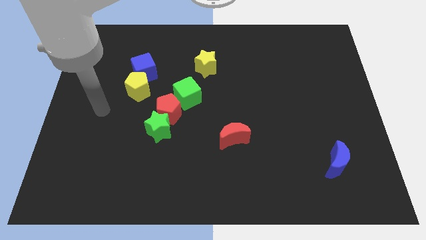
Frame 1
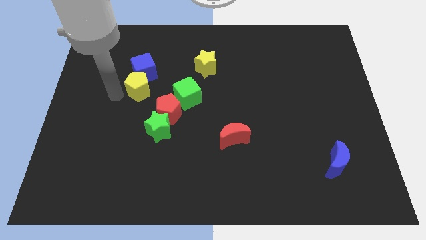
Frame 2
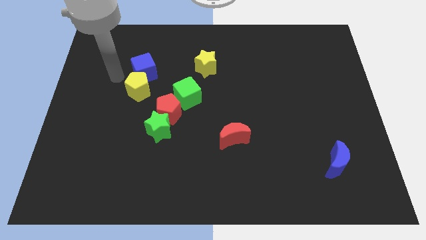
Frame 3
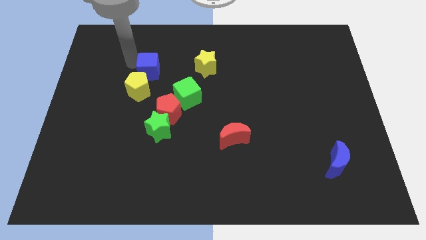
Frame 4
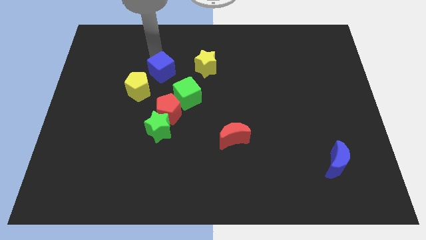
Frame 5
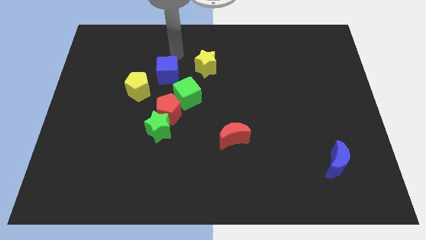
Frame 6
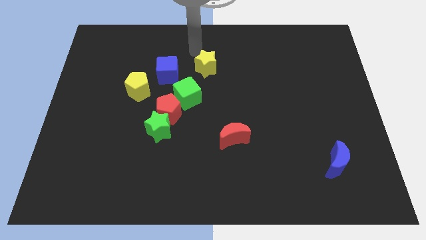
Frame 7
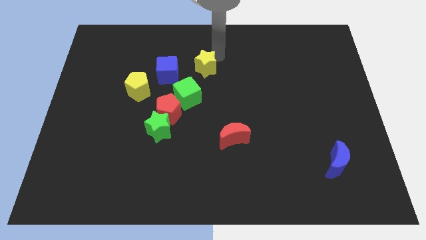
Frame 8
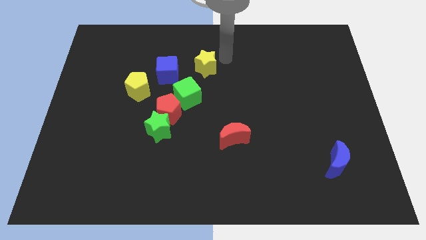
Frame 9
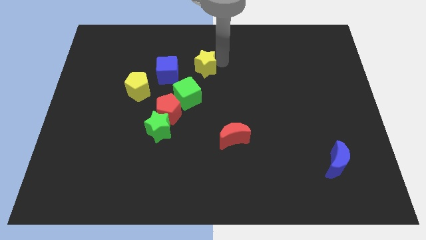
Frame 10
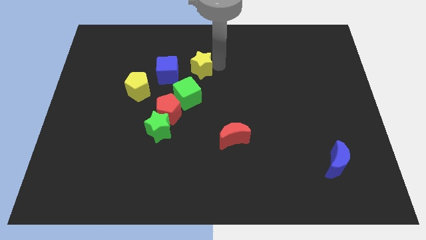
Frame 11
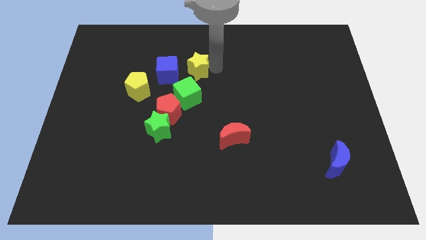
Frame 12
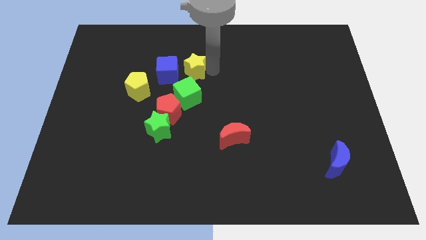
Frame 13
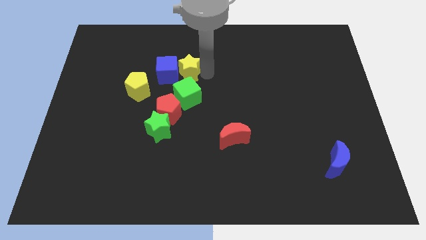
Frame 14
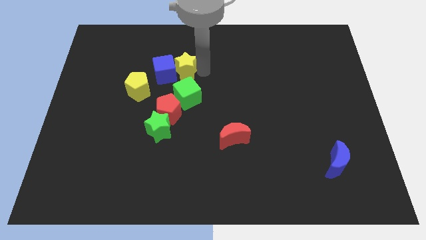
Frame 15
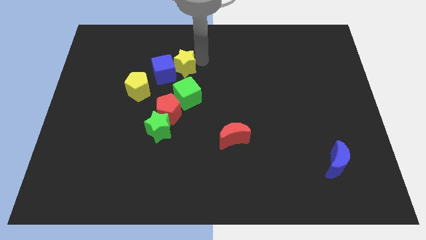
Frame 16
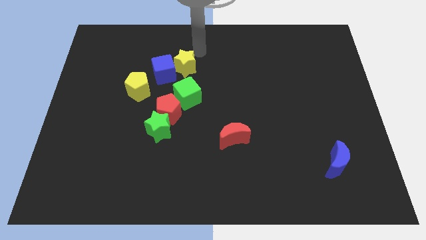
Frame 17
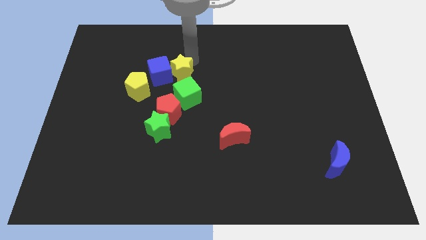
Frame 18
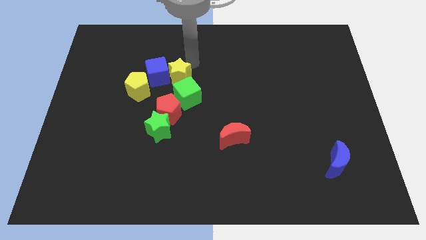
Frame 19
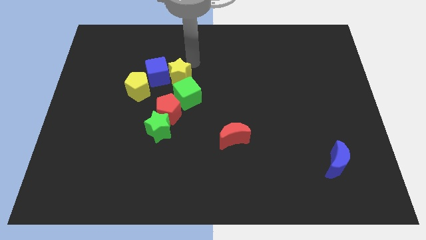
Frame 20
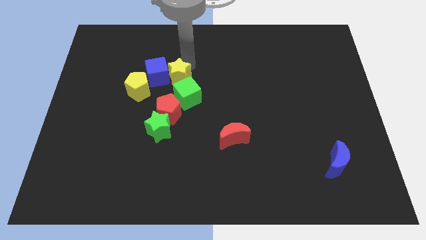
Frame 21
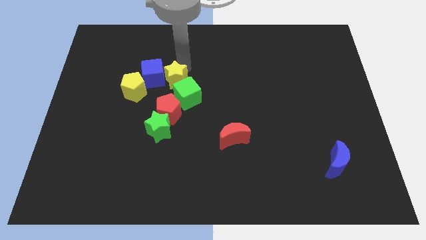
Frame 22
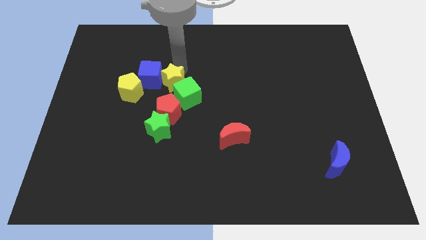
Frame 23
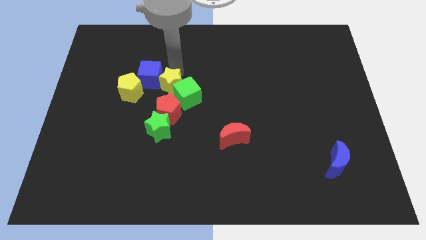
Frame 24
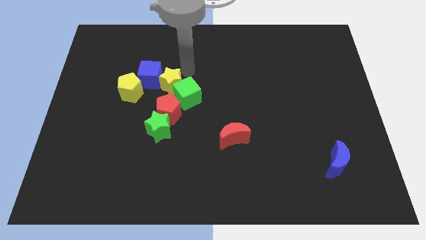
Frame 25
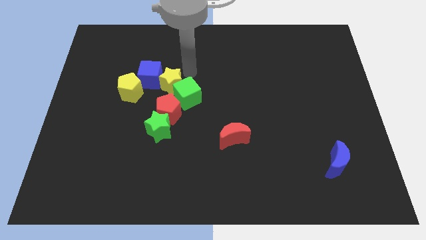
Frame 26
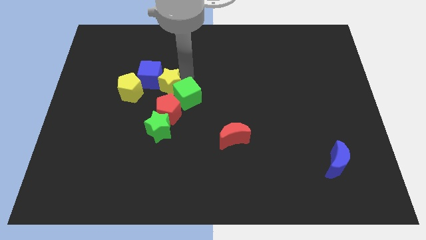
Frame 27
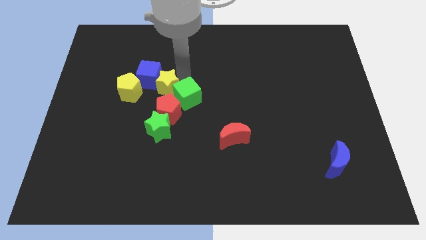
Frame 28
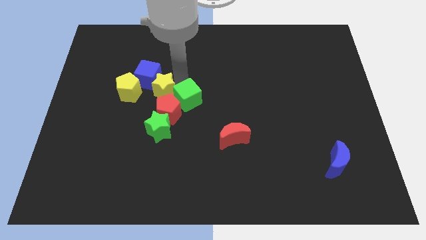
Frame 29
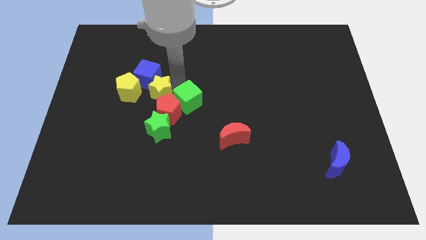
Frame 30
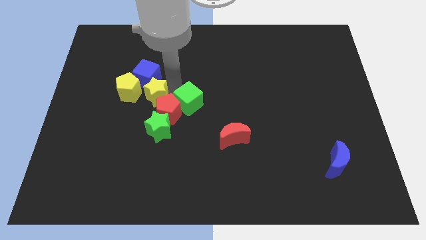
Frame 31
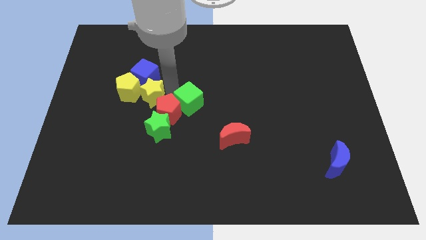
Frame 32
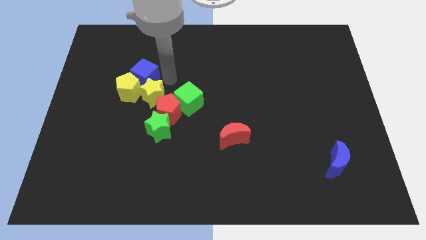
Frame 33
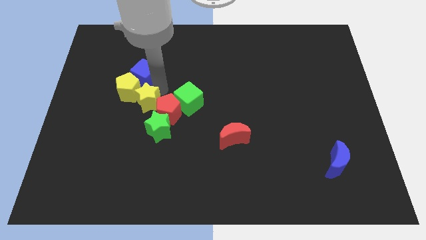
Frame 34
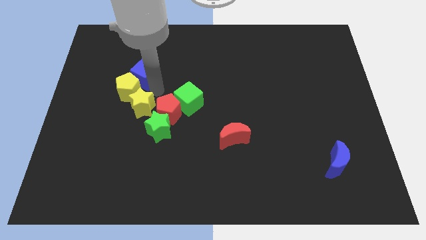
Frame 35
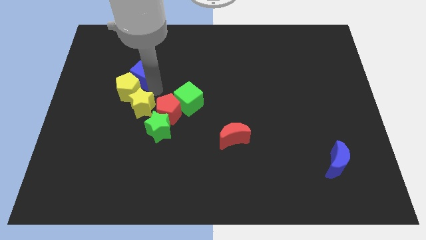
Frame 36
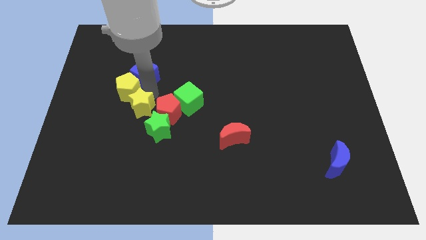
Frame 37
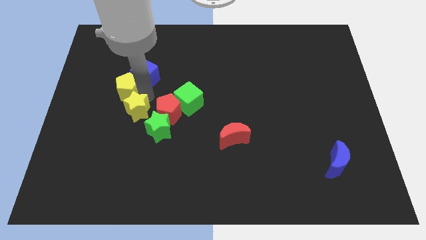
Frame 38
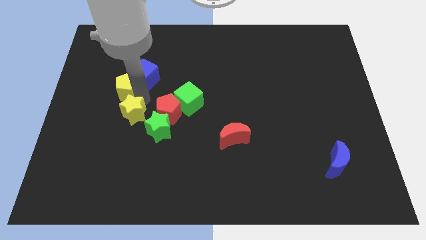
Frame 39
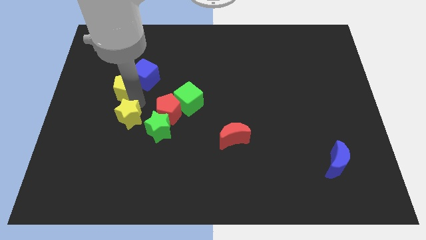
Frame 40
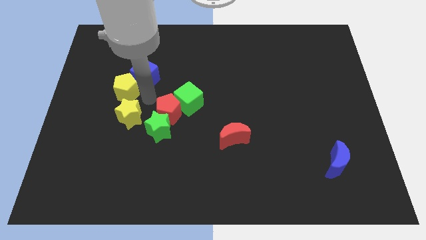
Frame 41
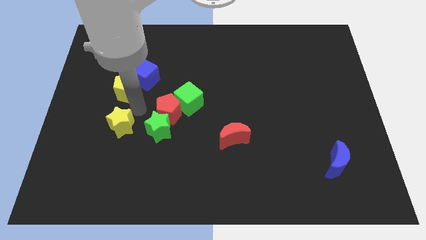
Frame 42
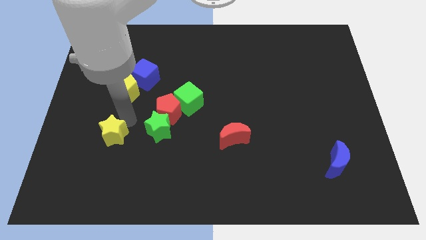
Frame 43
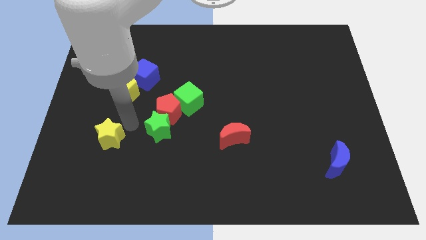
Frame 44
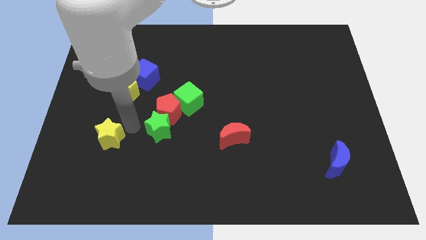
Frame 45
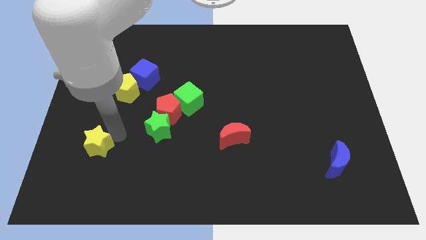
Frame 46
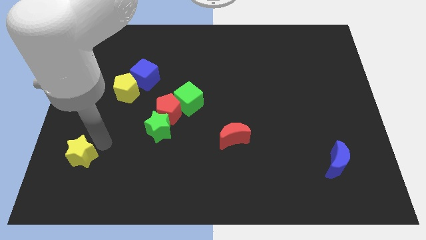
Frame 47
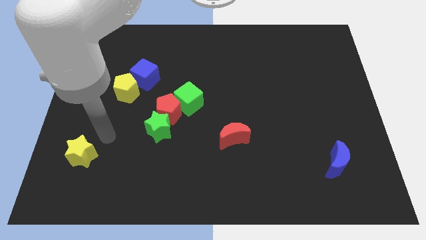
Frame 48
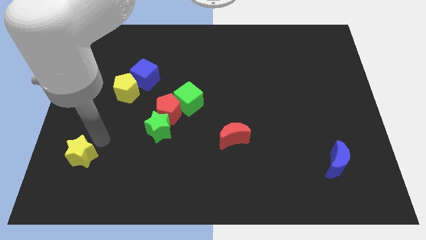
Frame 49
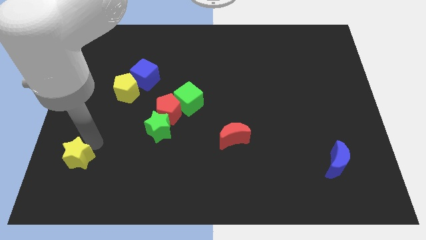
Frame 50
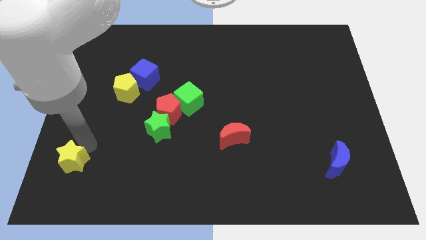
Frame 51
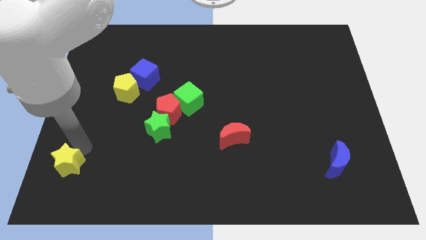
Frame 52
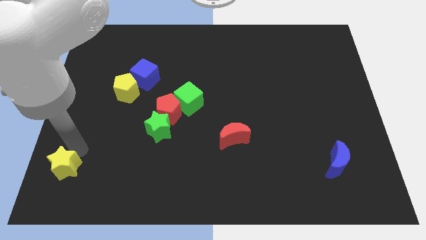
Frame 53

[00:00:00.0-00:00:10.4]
slide the yellow star to the bottom left

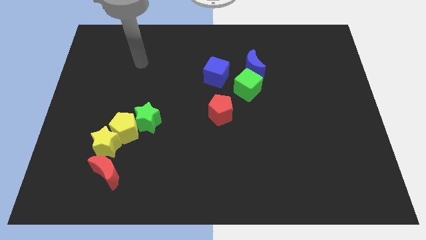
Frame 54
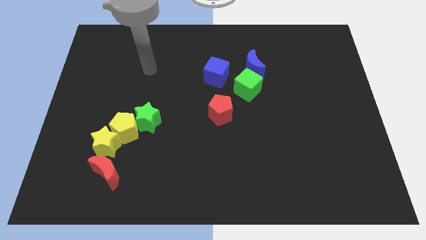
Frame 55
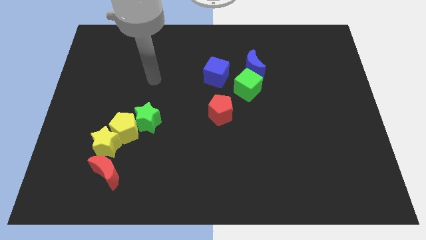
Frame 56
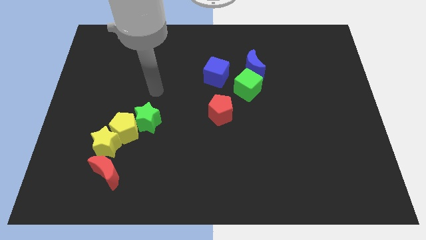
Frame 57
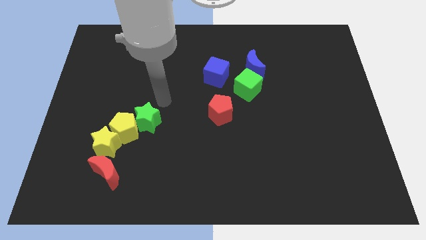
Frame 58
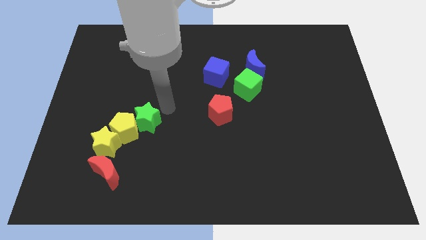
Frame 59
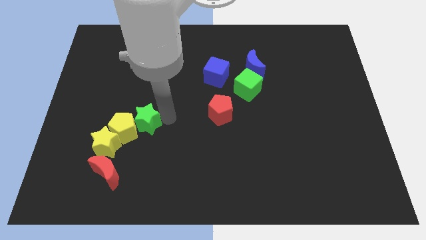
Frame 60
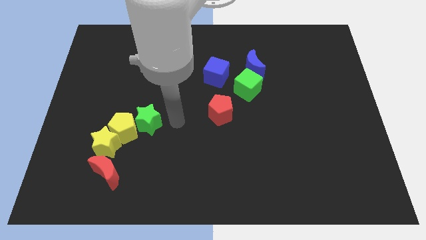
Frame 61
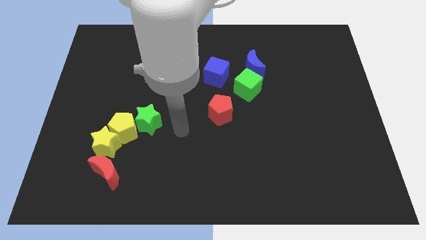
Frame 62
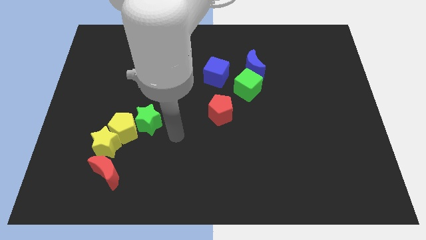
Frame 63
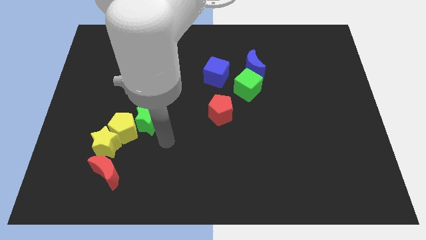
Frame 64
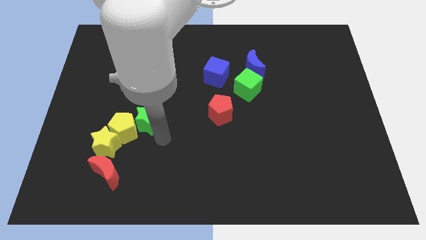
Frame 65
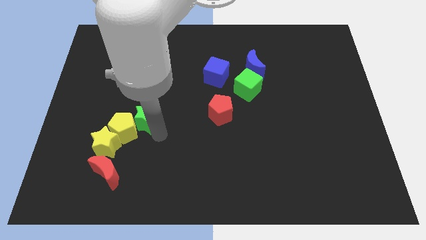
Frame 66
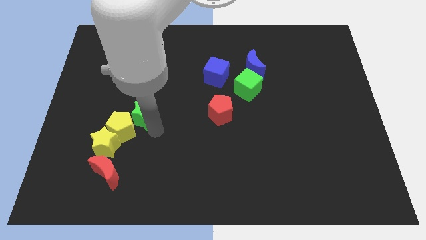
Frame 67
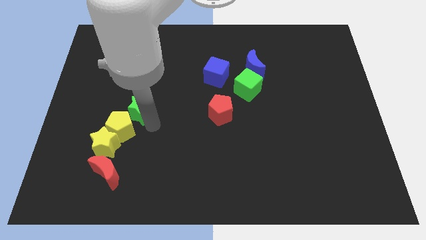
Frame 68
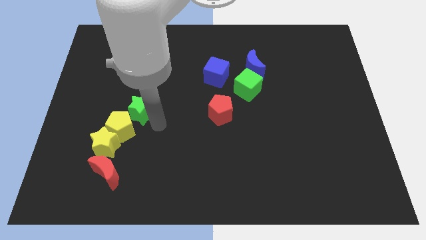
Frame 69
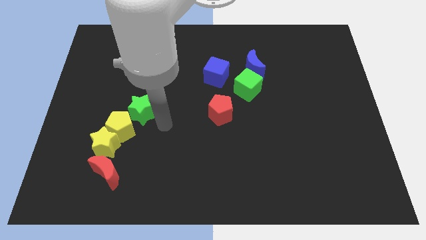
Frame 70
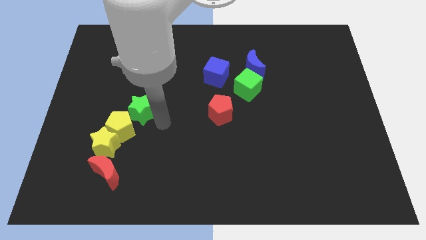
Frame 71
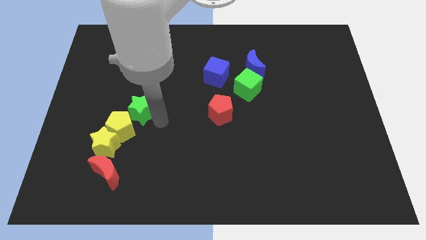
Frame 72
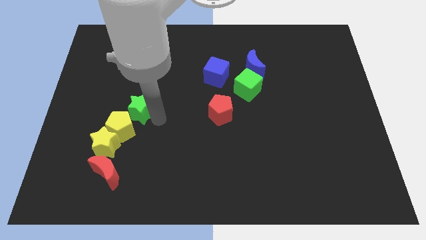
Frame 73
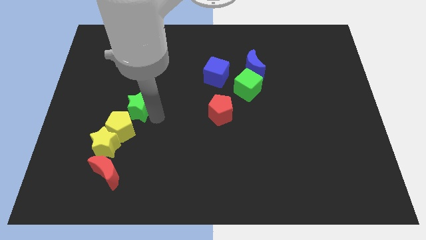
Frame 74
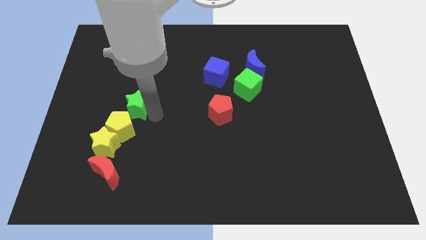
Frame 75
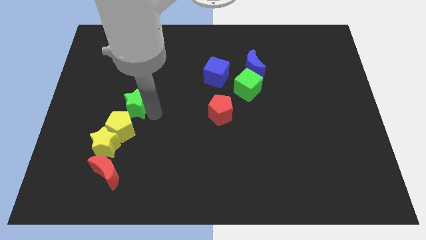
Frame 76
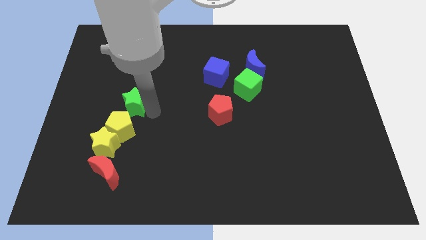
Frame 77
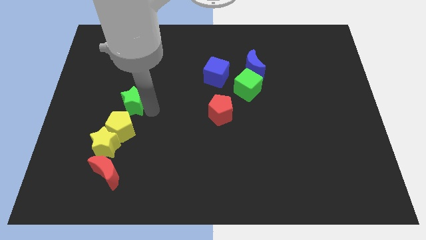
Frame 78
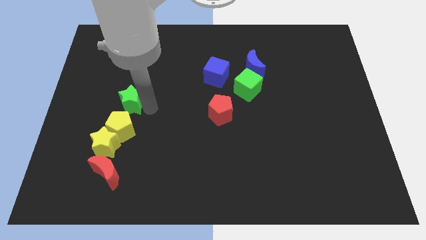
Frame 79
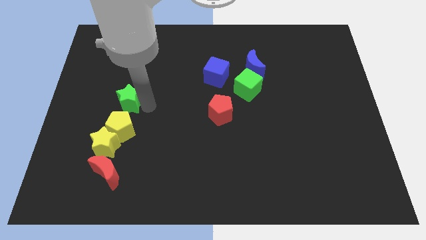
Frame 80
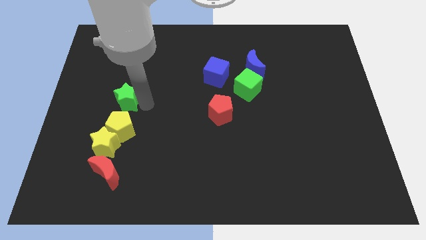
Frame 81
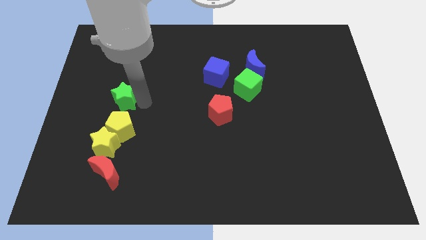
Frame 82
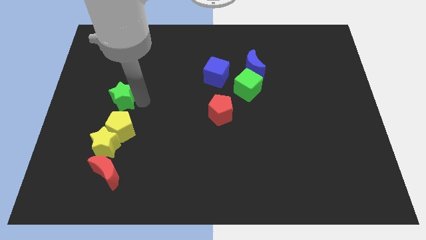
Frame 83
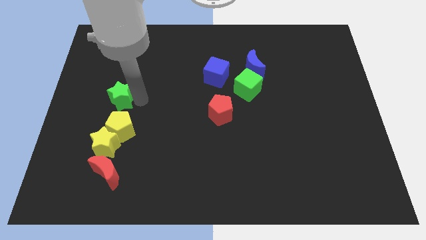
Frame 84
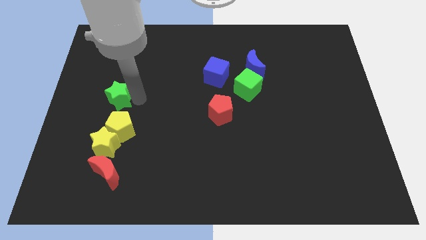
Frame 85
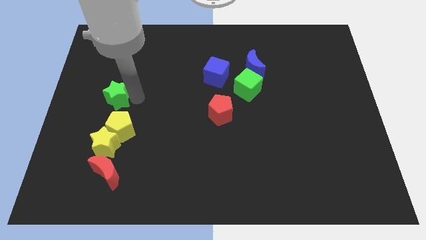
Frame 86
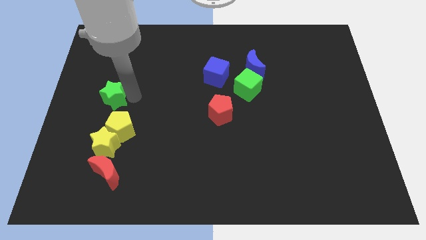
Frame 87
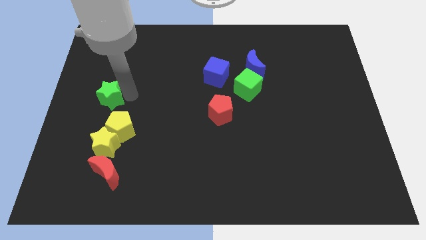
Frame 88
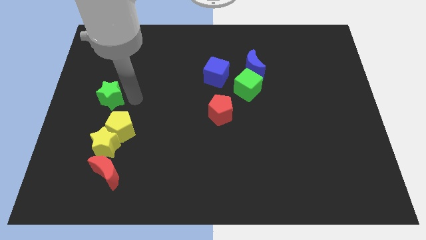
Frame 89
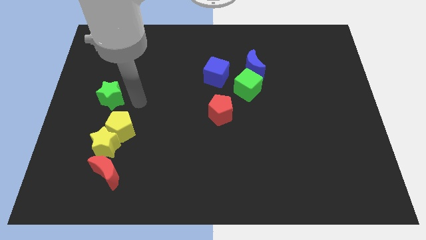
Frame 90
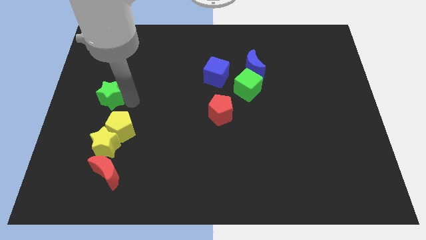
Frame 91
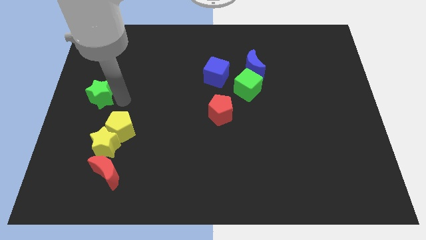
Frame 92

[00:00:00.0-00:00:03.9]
move the green star to the left side
